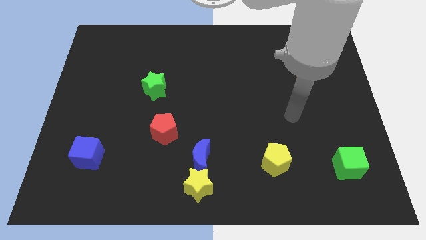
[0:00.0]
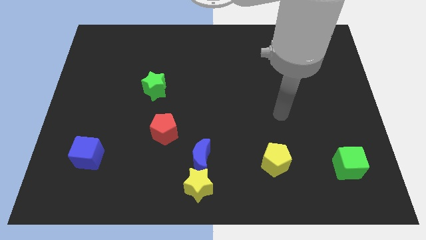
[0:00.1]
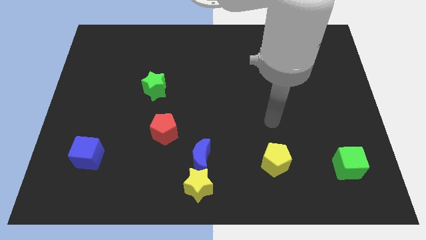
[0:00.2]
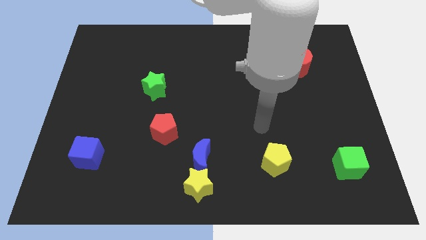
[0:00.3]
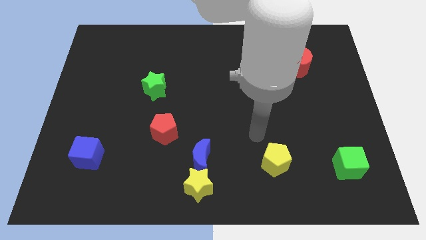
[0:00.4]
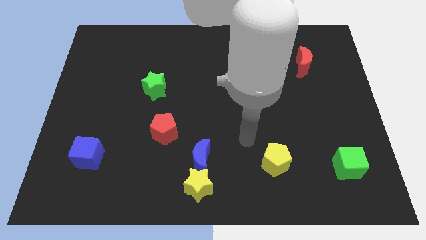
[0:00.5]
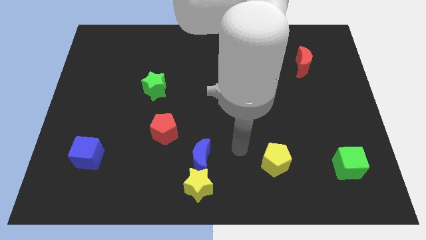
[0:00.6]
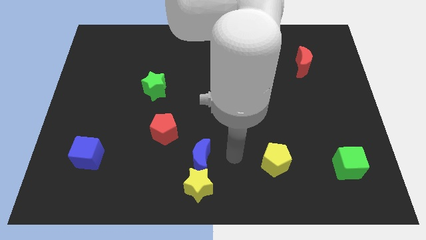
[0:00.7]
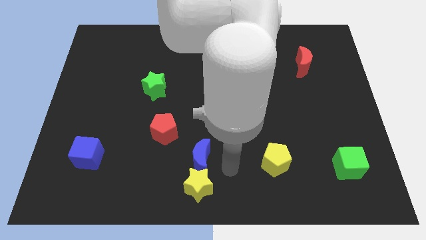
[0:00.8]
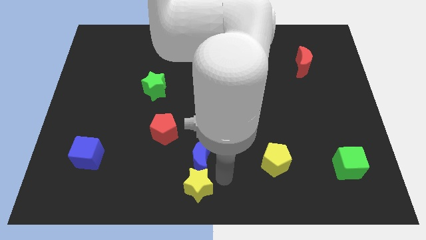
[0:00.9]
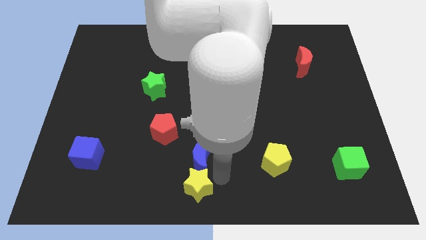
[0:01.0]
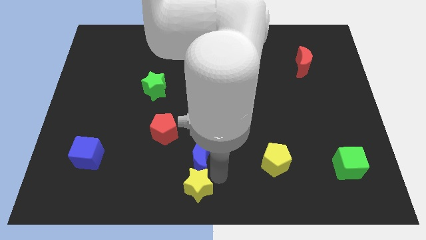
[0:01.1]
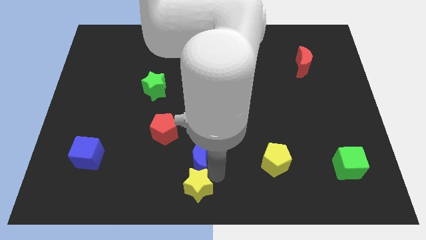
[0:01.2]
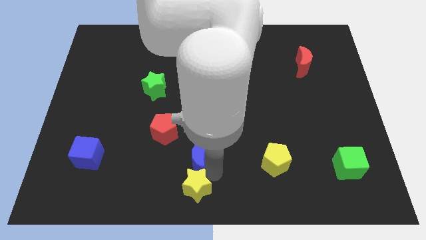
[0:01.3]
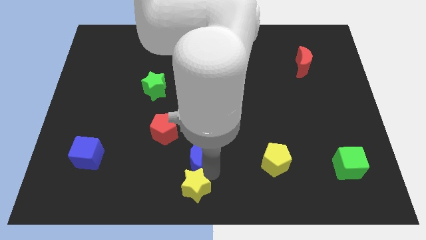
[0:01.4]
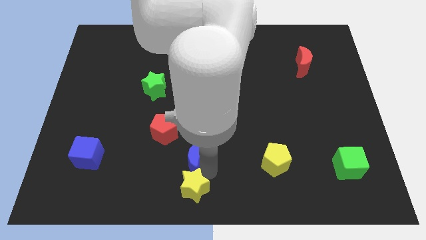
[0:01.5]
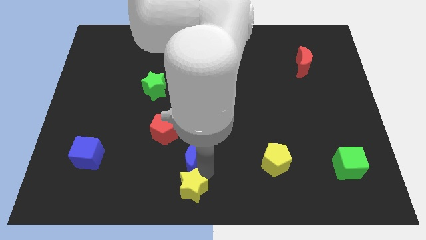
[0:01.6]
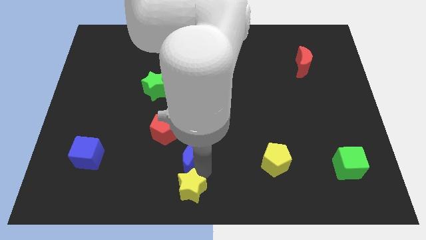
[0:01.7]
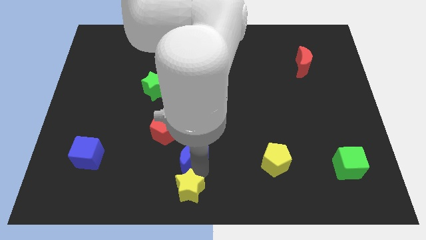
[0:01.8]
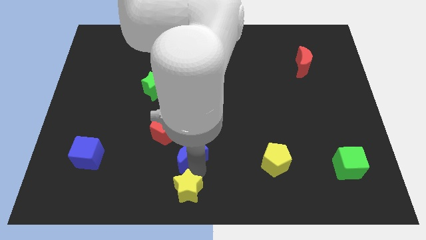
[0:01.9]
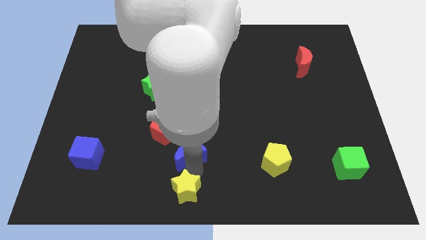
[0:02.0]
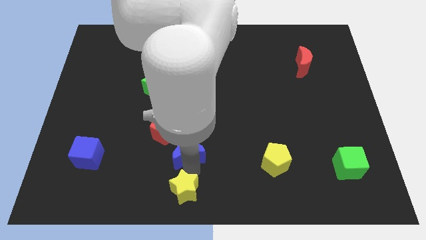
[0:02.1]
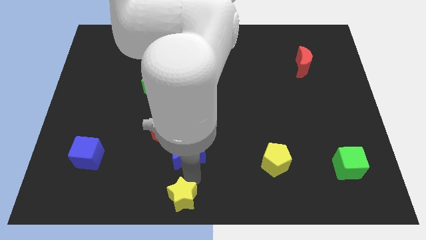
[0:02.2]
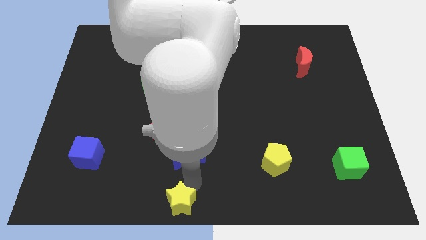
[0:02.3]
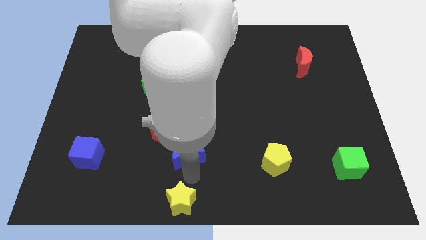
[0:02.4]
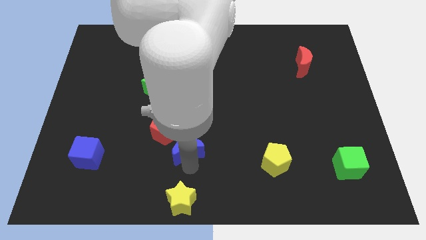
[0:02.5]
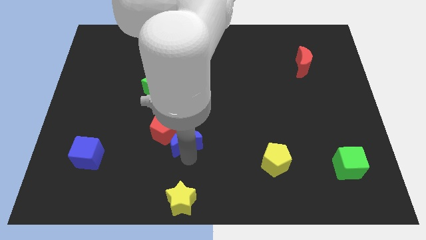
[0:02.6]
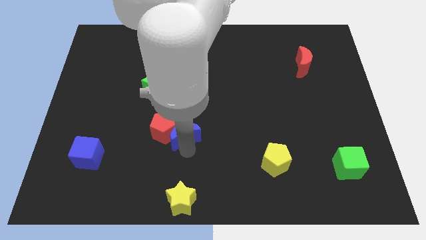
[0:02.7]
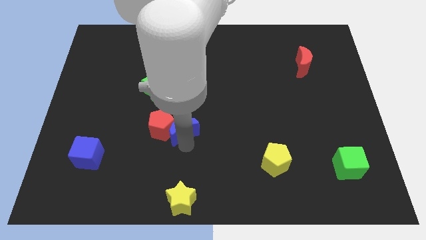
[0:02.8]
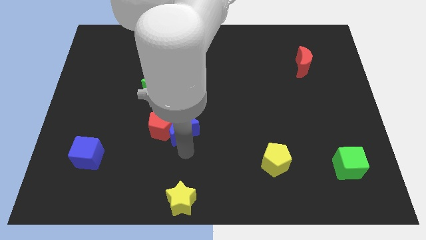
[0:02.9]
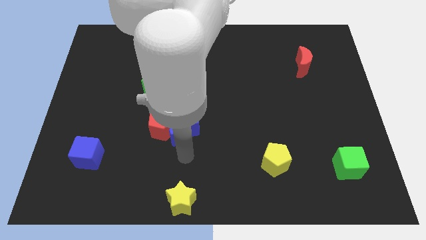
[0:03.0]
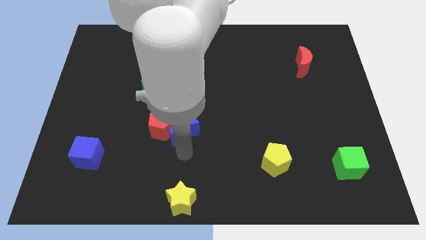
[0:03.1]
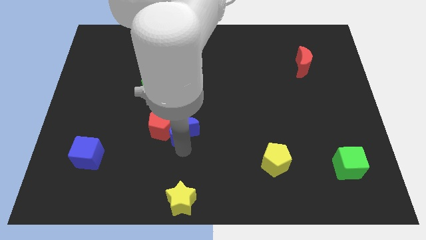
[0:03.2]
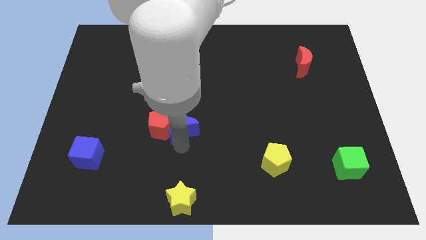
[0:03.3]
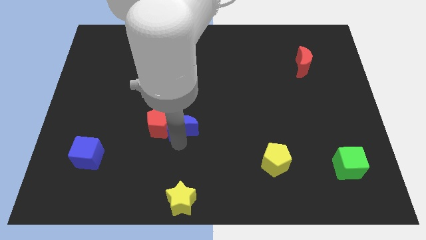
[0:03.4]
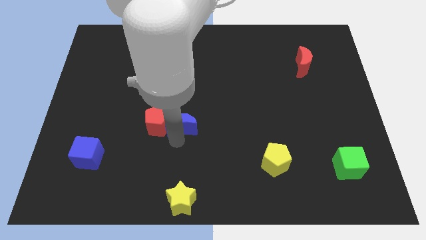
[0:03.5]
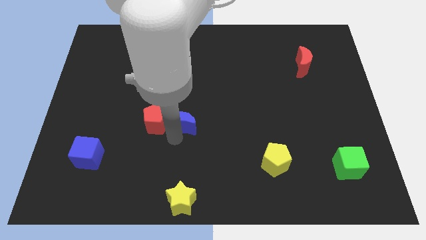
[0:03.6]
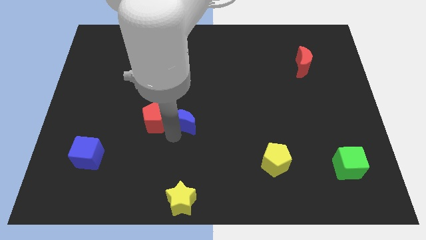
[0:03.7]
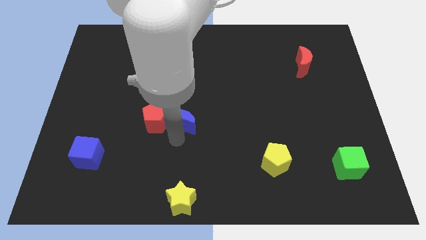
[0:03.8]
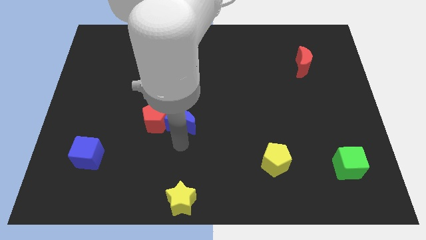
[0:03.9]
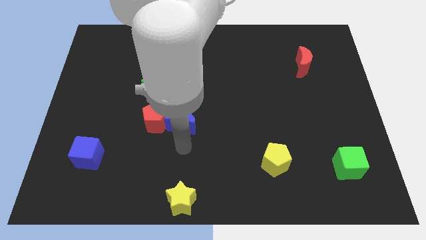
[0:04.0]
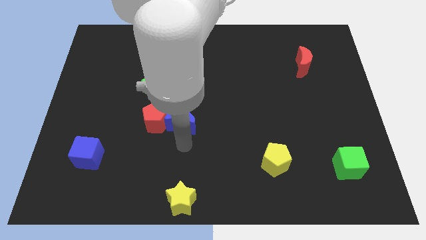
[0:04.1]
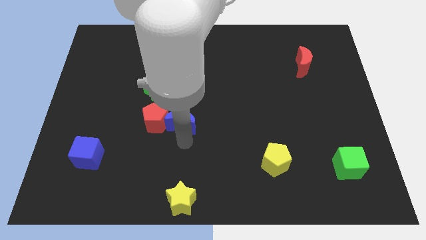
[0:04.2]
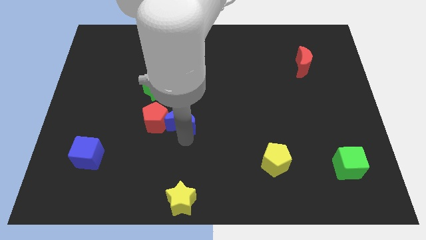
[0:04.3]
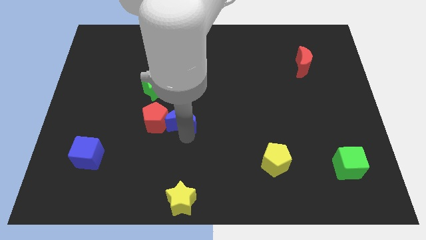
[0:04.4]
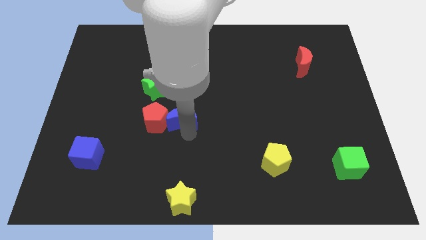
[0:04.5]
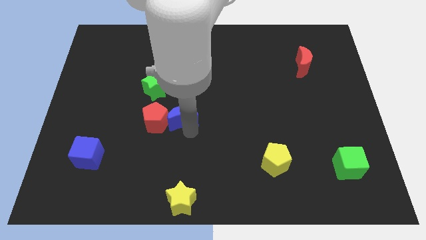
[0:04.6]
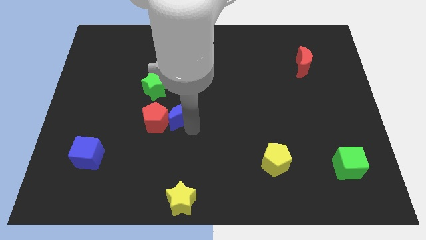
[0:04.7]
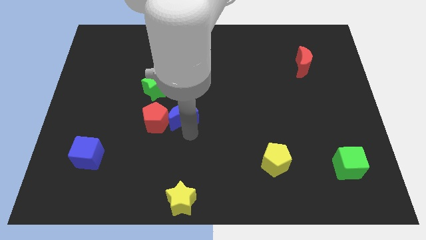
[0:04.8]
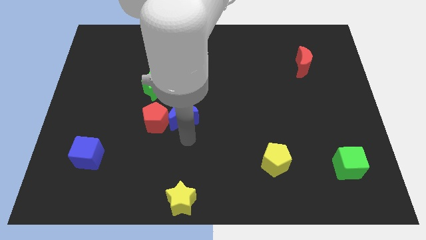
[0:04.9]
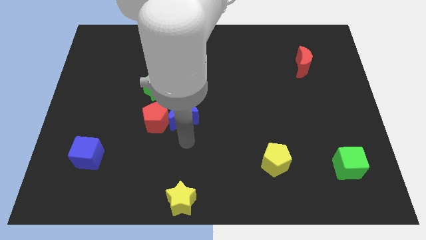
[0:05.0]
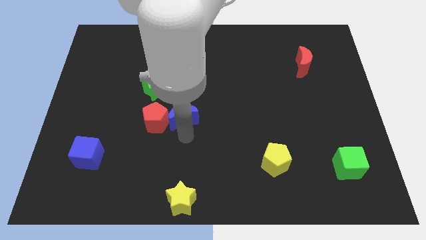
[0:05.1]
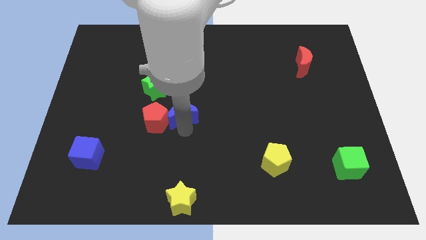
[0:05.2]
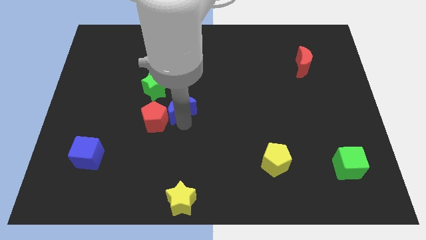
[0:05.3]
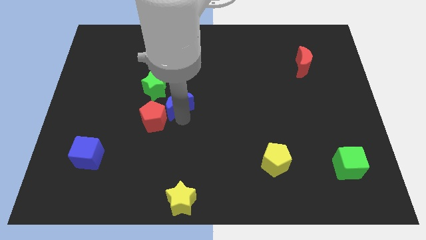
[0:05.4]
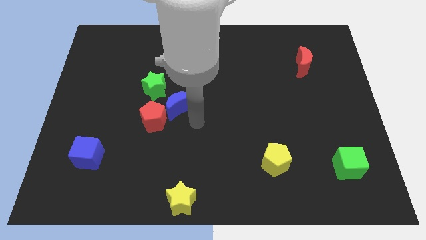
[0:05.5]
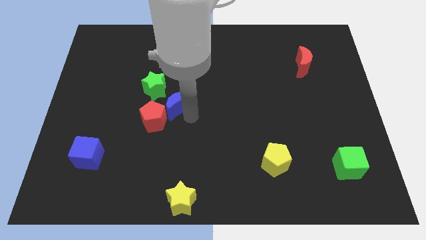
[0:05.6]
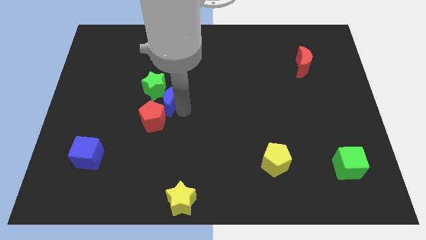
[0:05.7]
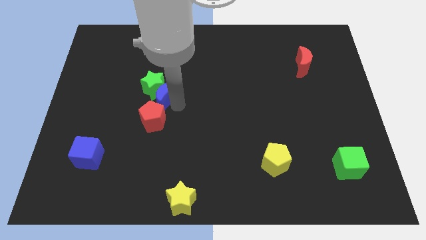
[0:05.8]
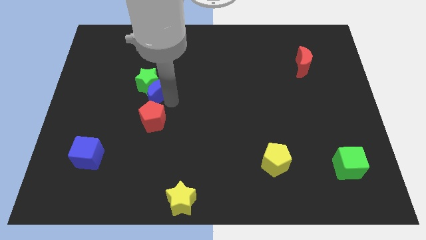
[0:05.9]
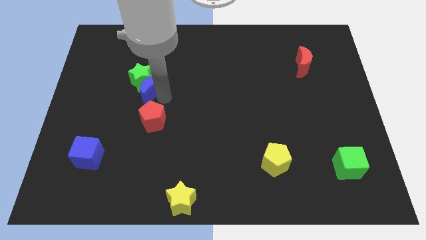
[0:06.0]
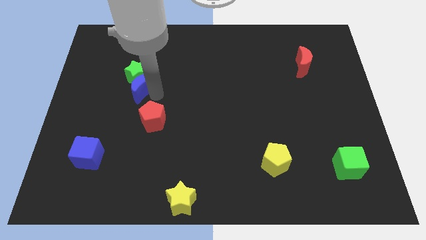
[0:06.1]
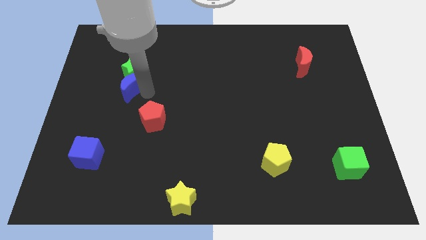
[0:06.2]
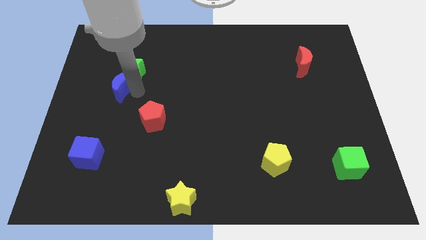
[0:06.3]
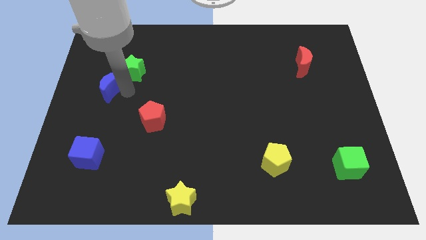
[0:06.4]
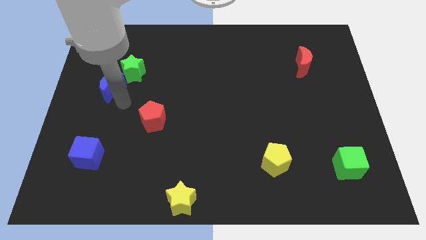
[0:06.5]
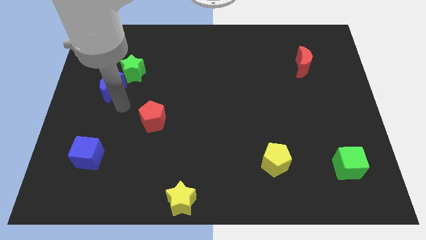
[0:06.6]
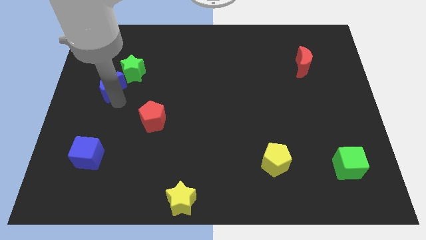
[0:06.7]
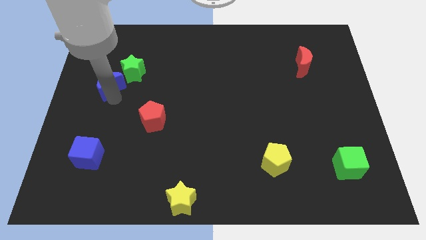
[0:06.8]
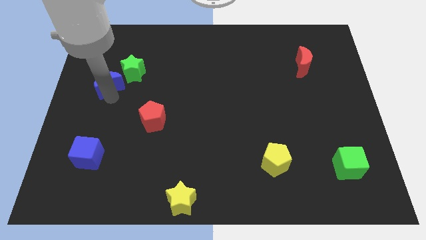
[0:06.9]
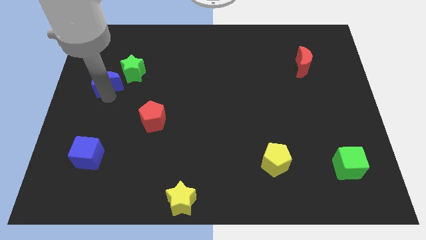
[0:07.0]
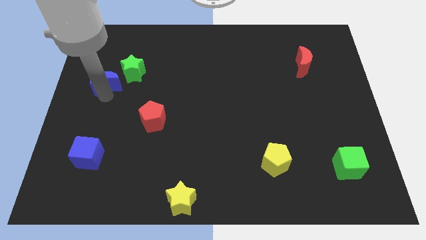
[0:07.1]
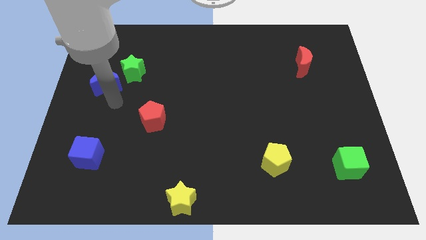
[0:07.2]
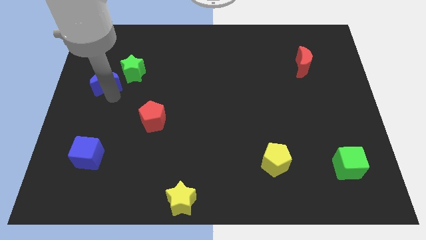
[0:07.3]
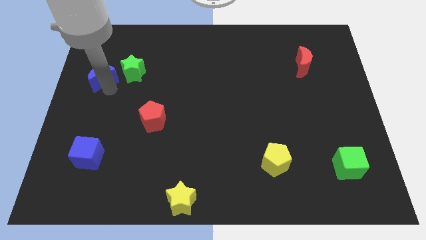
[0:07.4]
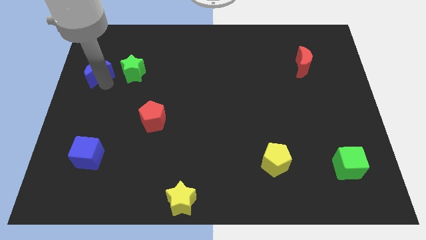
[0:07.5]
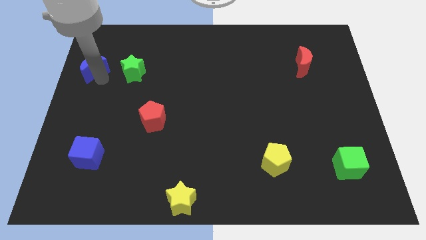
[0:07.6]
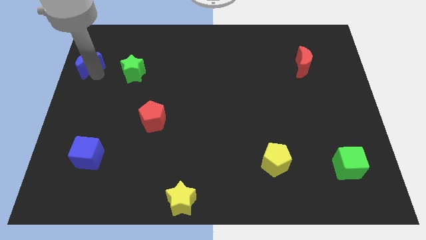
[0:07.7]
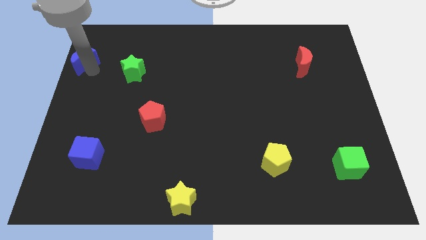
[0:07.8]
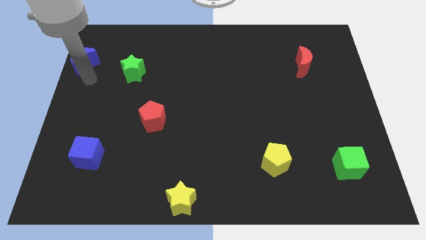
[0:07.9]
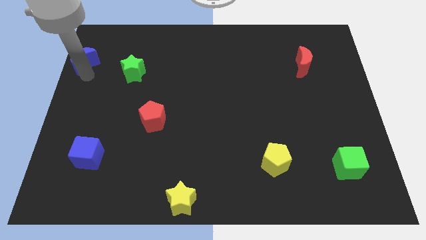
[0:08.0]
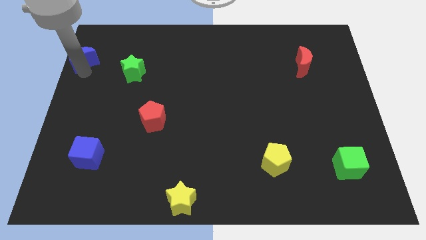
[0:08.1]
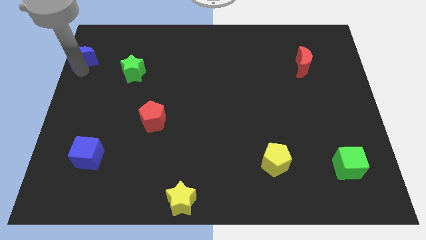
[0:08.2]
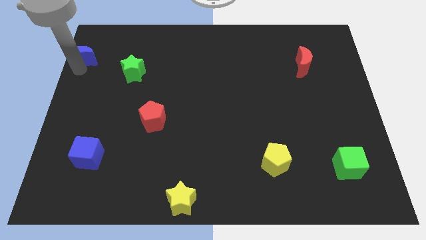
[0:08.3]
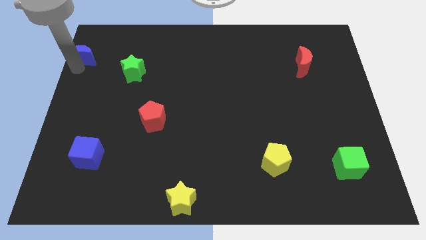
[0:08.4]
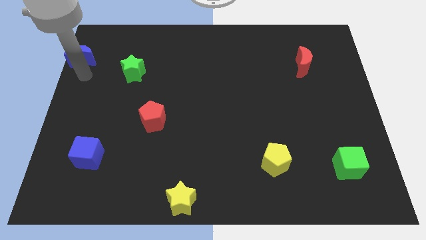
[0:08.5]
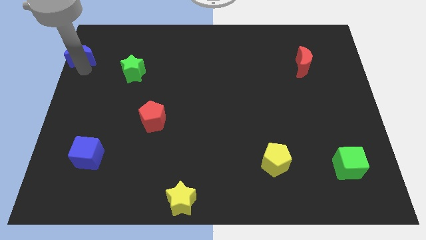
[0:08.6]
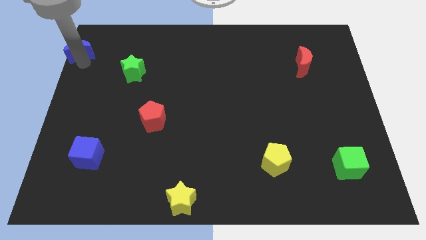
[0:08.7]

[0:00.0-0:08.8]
slide the blue moon to the top left
